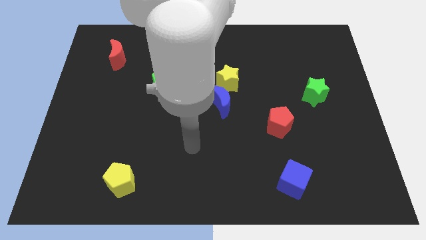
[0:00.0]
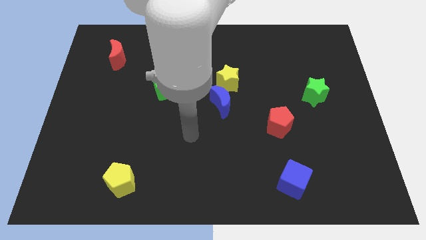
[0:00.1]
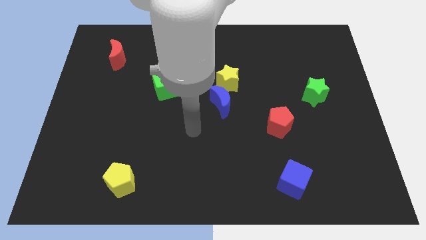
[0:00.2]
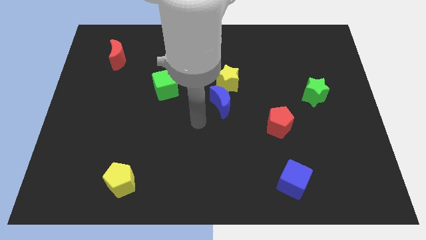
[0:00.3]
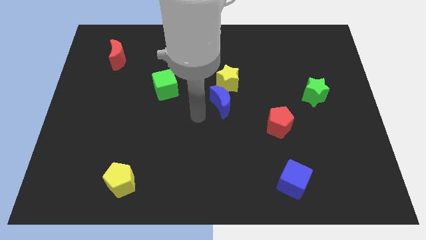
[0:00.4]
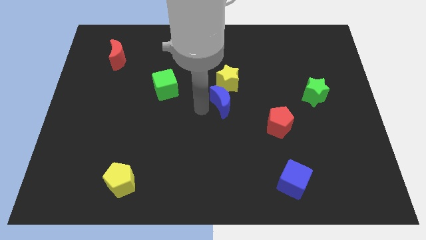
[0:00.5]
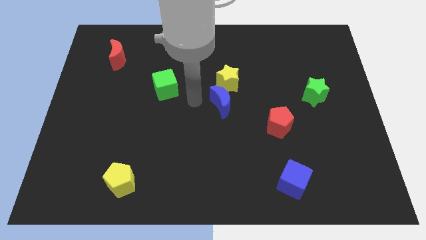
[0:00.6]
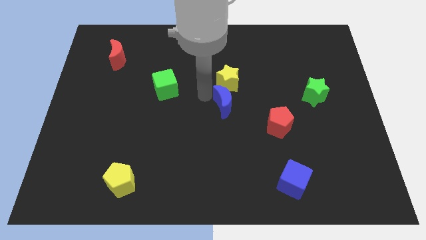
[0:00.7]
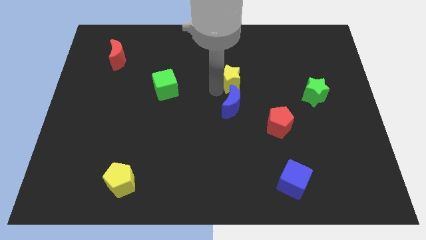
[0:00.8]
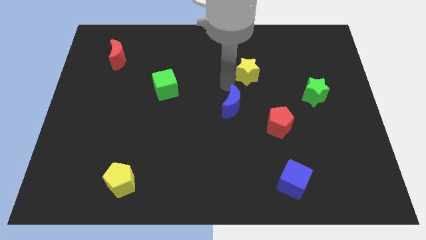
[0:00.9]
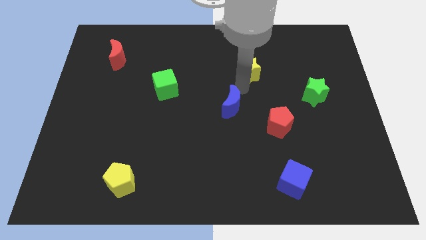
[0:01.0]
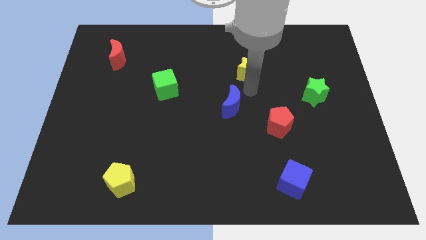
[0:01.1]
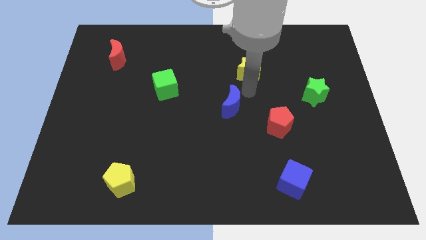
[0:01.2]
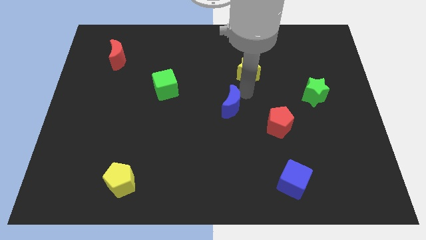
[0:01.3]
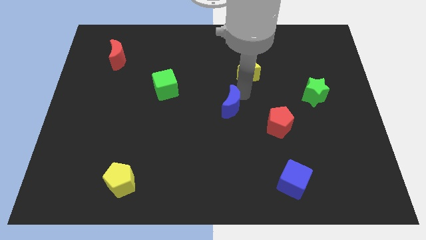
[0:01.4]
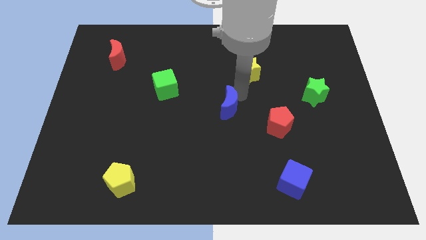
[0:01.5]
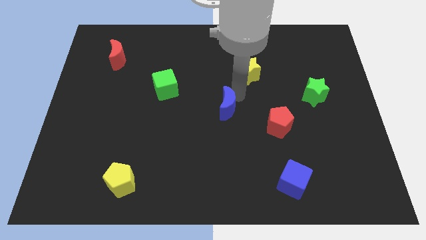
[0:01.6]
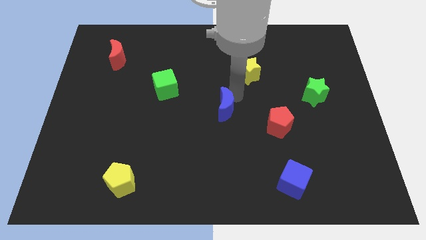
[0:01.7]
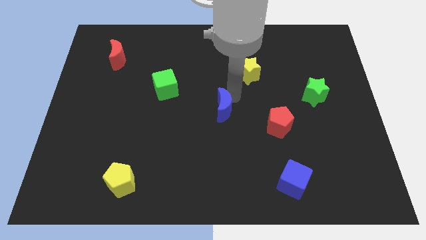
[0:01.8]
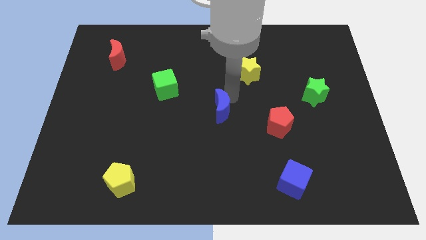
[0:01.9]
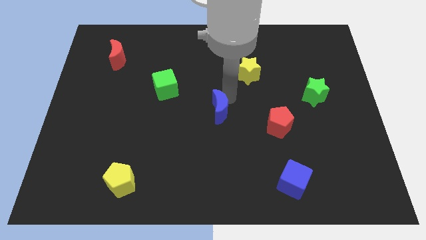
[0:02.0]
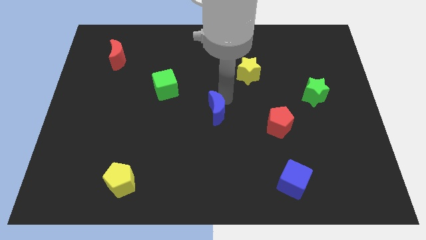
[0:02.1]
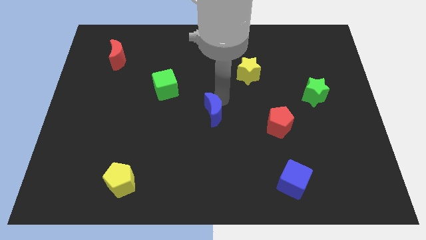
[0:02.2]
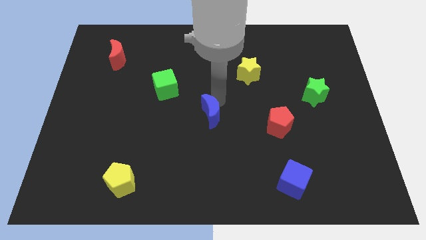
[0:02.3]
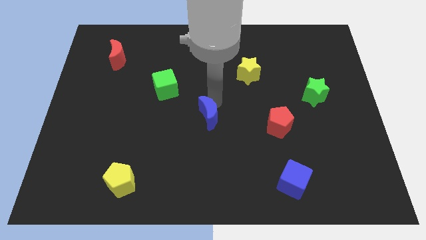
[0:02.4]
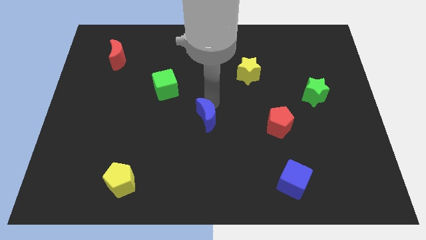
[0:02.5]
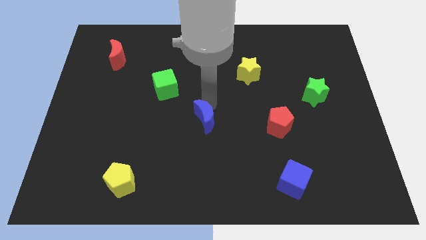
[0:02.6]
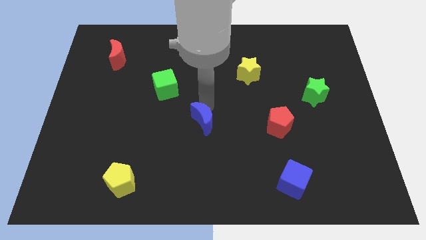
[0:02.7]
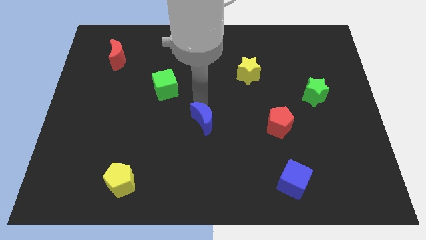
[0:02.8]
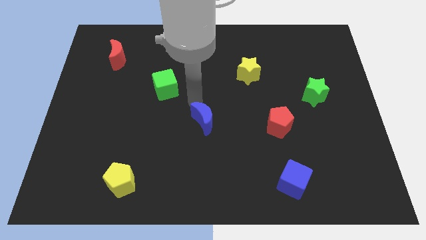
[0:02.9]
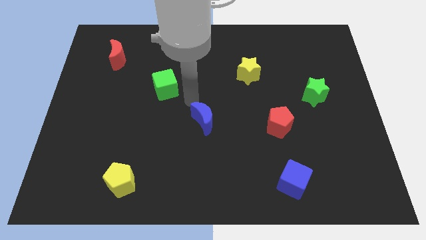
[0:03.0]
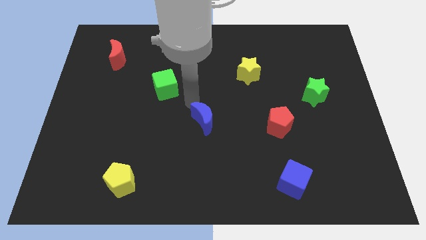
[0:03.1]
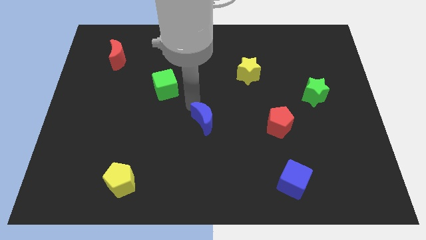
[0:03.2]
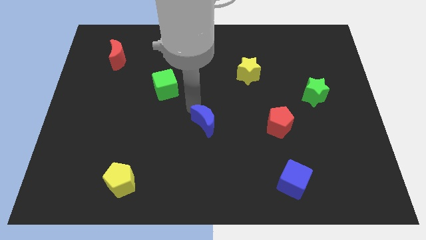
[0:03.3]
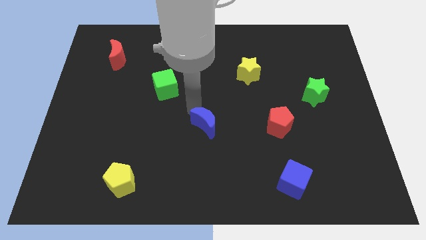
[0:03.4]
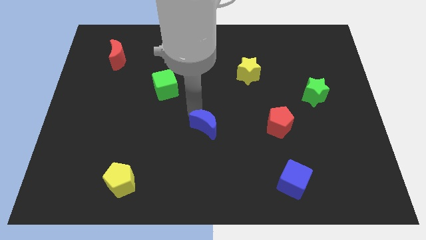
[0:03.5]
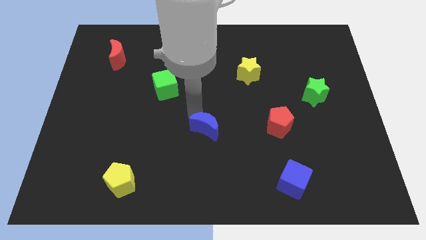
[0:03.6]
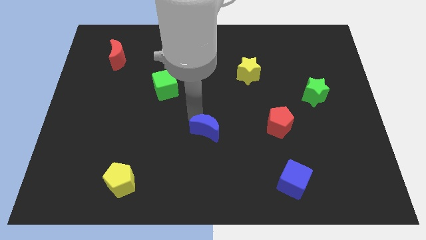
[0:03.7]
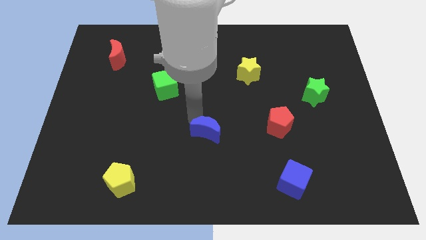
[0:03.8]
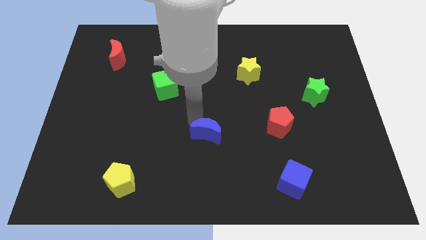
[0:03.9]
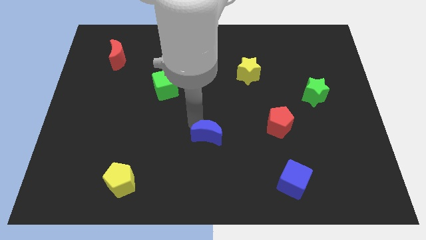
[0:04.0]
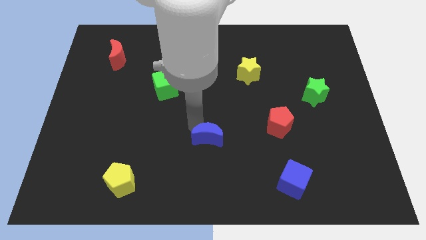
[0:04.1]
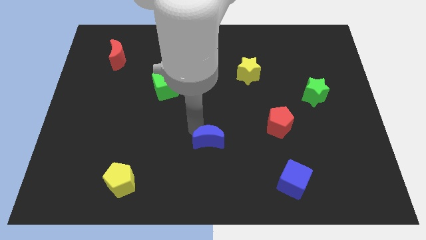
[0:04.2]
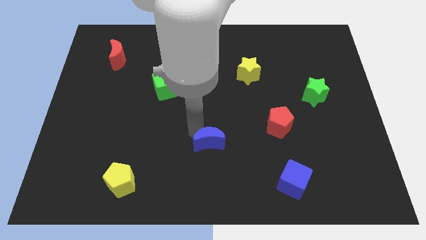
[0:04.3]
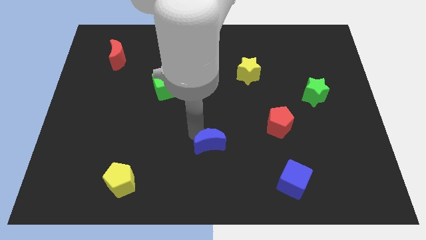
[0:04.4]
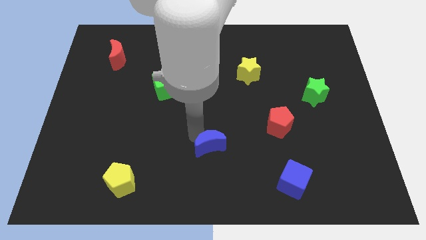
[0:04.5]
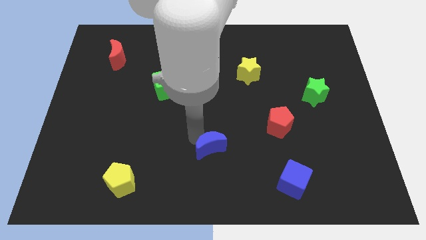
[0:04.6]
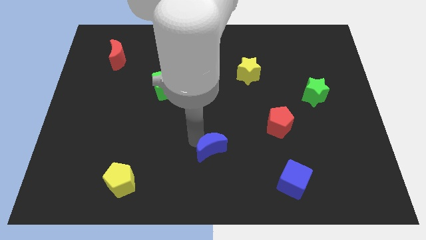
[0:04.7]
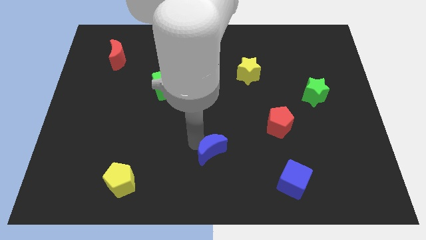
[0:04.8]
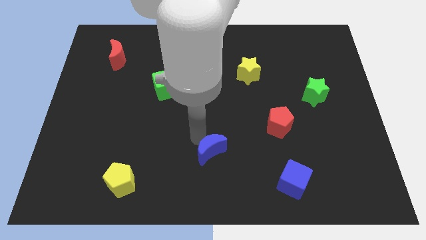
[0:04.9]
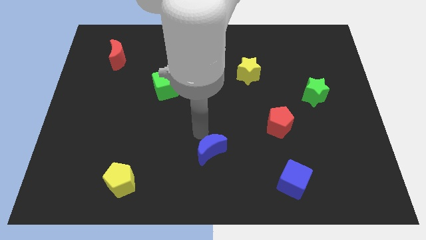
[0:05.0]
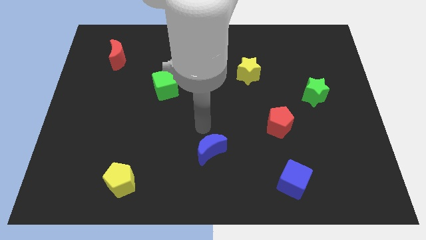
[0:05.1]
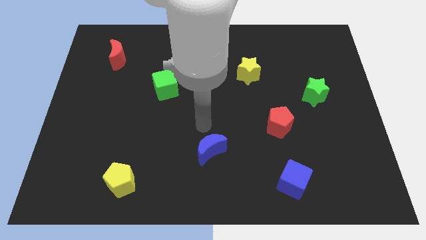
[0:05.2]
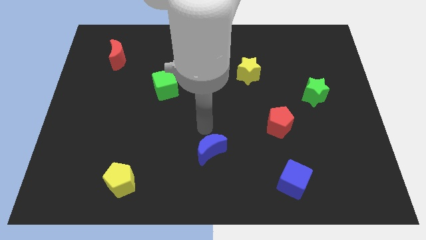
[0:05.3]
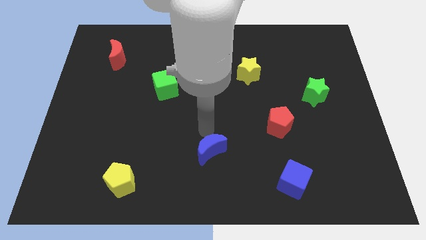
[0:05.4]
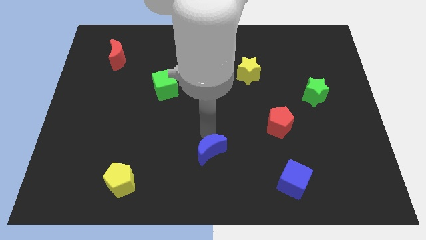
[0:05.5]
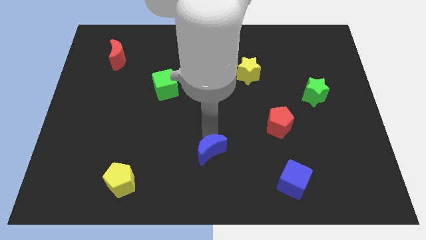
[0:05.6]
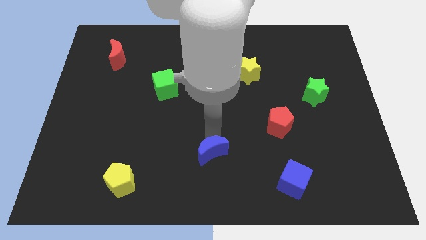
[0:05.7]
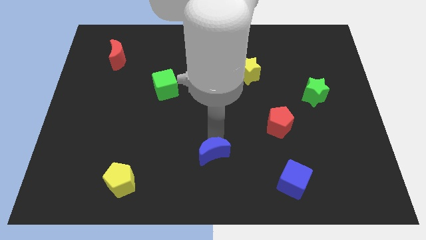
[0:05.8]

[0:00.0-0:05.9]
push the blue moon to the bottom
